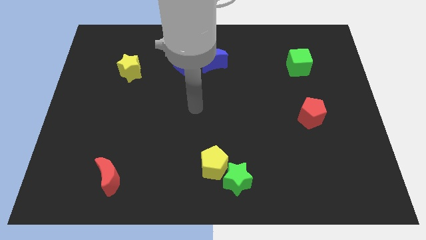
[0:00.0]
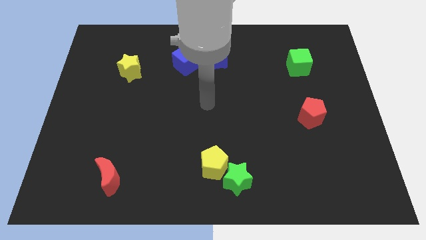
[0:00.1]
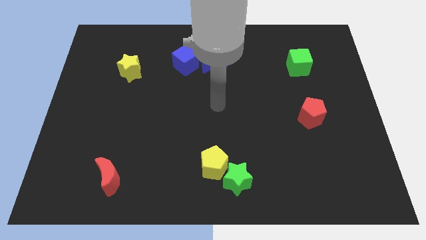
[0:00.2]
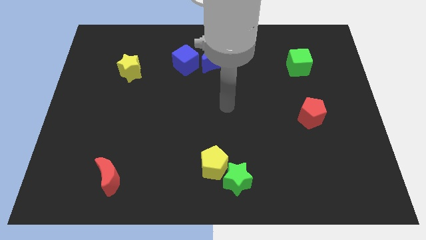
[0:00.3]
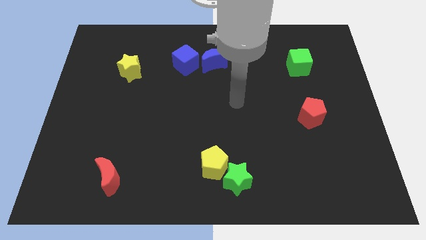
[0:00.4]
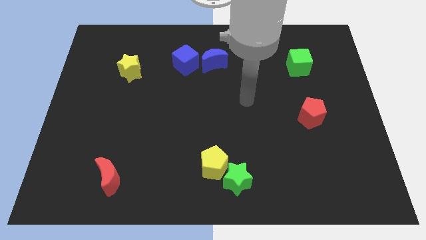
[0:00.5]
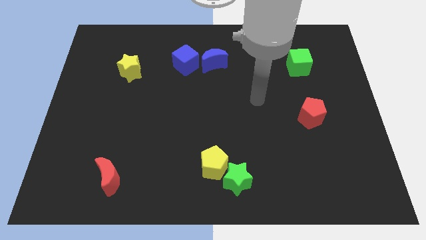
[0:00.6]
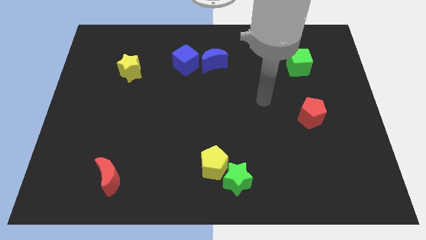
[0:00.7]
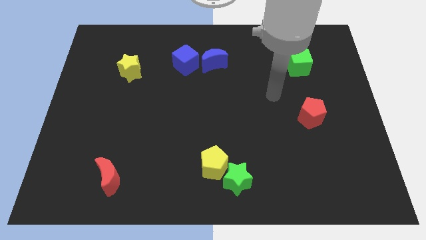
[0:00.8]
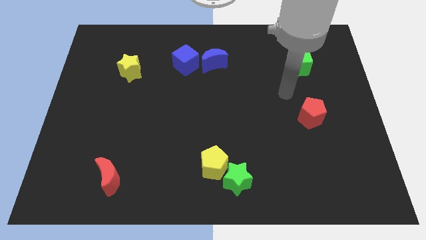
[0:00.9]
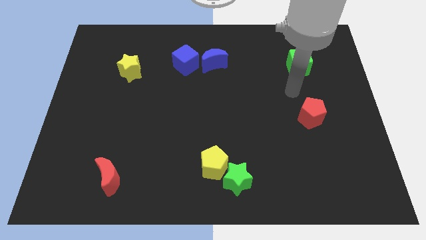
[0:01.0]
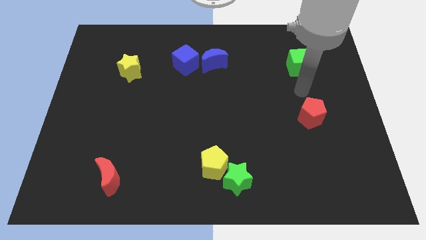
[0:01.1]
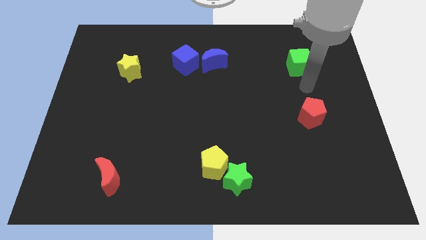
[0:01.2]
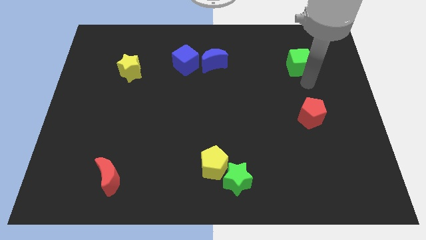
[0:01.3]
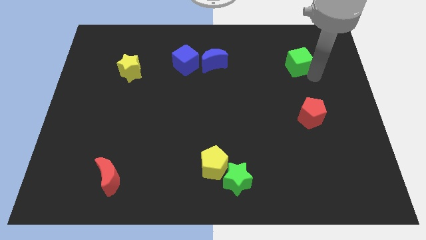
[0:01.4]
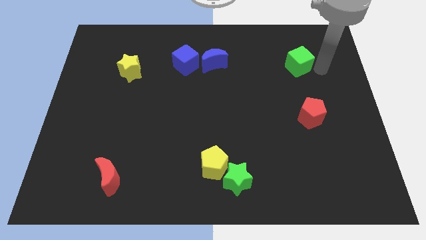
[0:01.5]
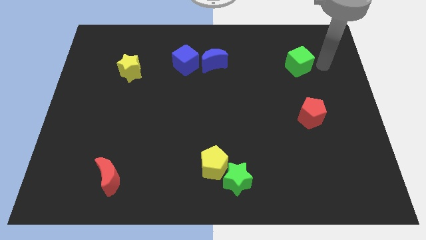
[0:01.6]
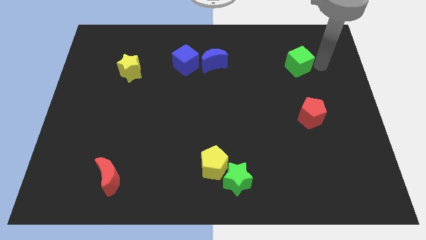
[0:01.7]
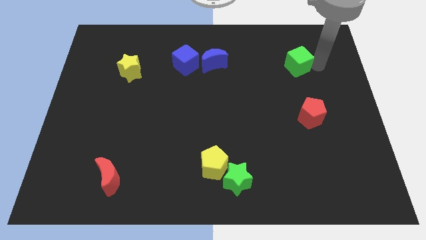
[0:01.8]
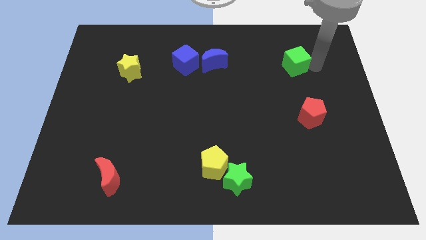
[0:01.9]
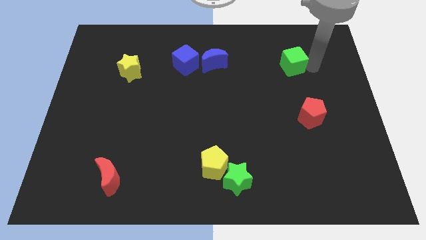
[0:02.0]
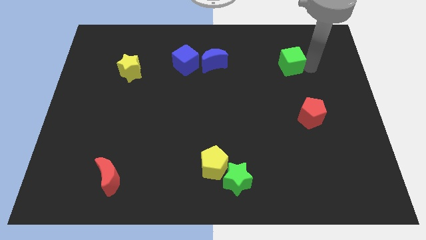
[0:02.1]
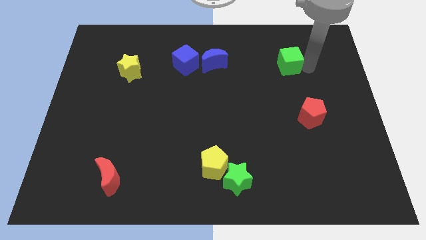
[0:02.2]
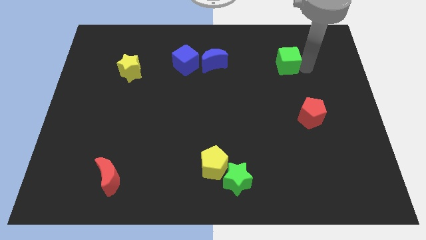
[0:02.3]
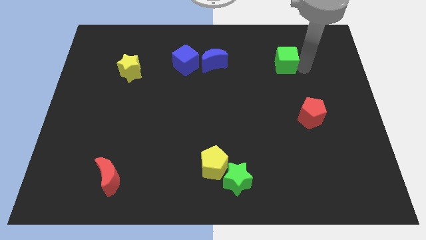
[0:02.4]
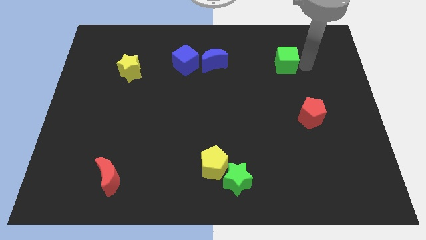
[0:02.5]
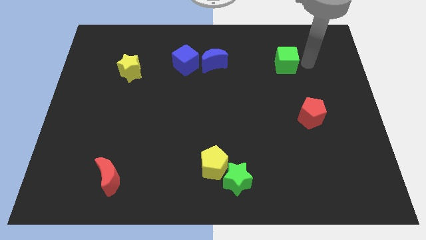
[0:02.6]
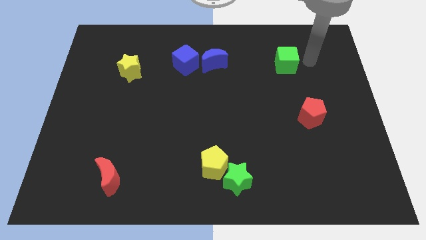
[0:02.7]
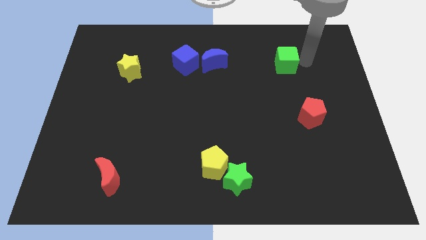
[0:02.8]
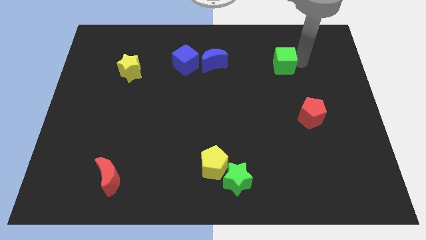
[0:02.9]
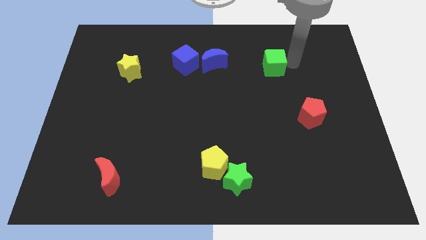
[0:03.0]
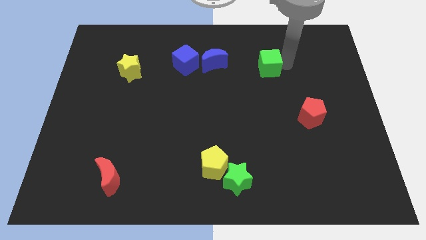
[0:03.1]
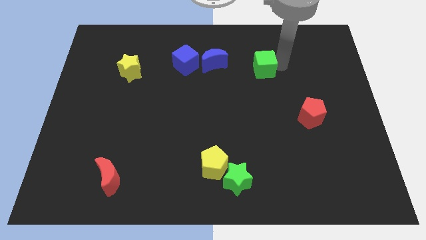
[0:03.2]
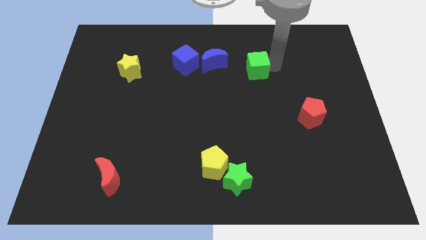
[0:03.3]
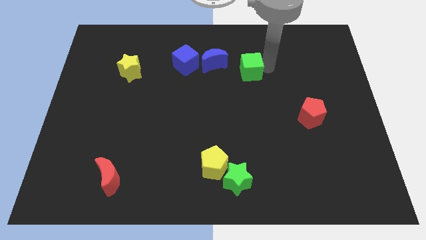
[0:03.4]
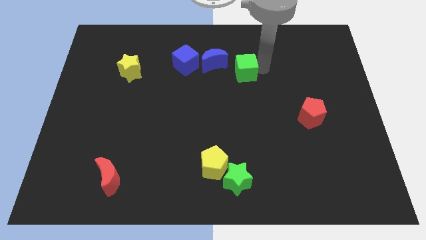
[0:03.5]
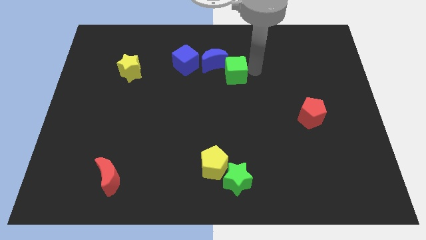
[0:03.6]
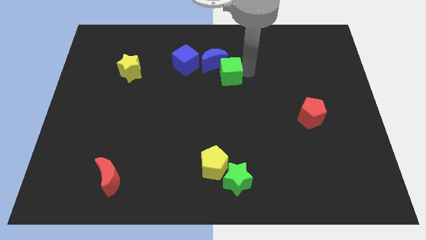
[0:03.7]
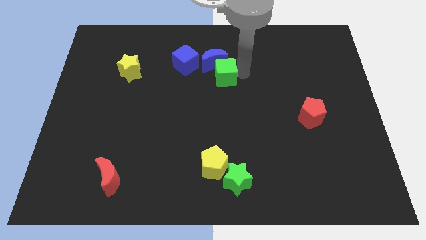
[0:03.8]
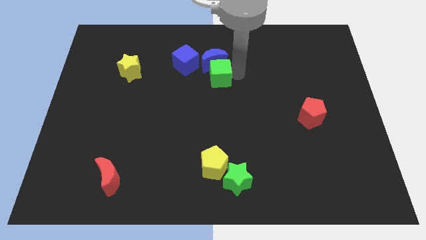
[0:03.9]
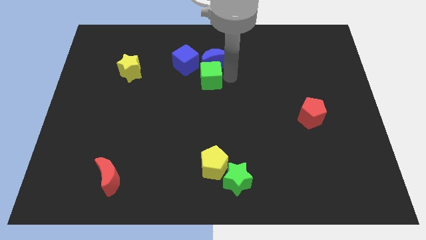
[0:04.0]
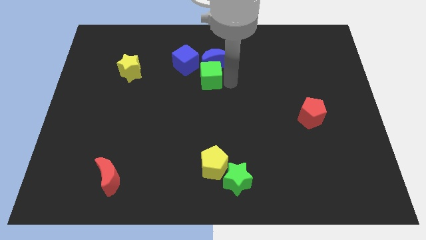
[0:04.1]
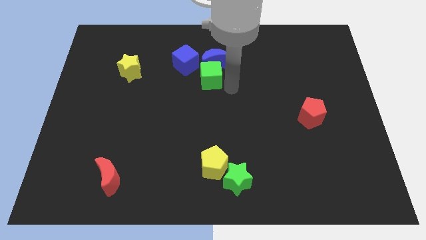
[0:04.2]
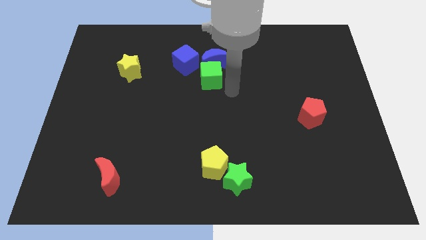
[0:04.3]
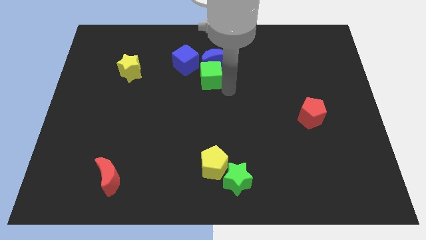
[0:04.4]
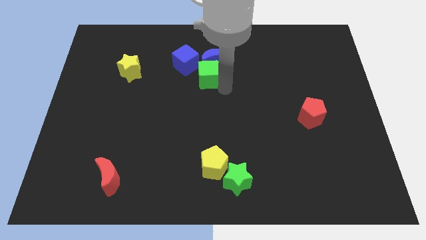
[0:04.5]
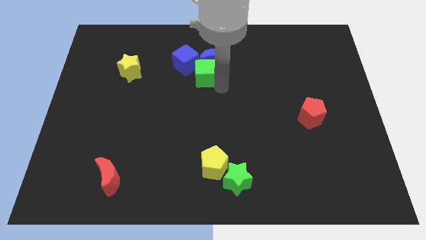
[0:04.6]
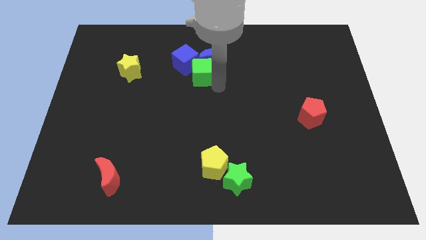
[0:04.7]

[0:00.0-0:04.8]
move the green cube next to the blue cube

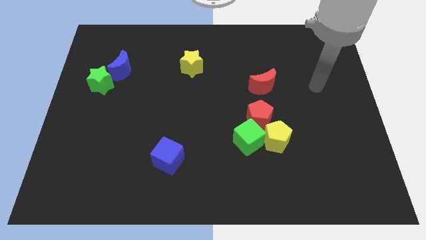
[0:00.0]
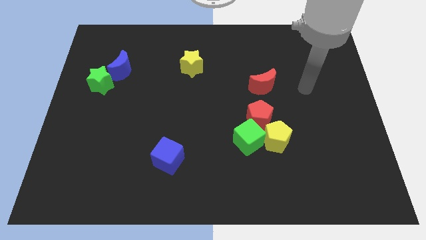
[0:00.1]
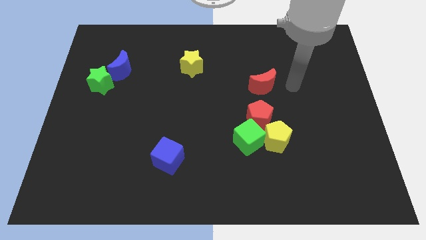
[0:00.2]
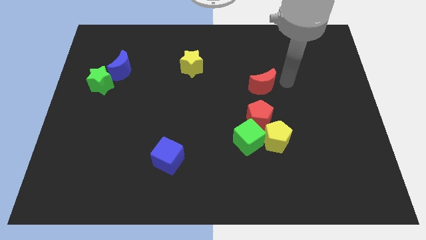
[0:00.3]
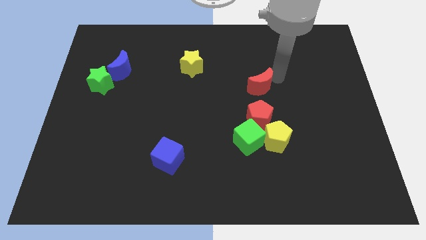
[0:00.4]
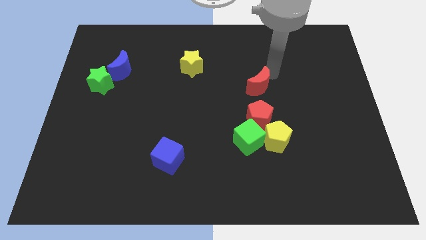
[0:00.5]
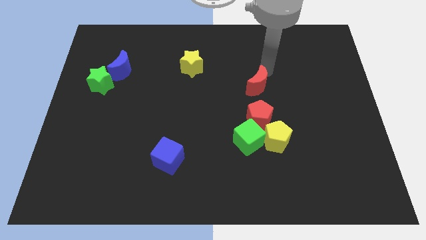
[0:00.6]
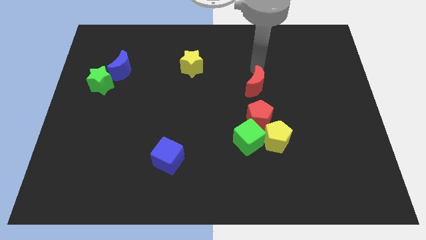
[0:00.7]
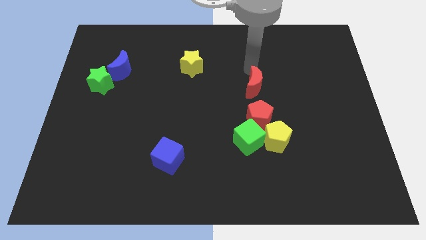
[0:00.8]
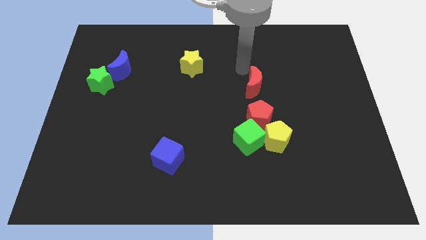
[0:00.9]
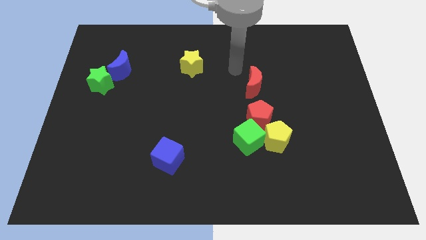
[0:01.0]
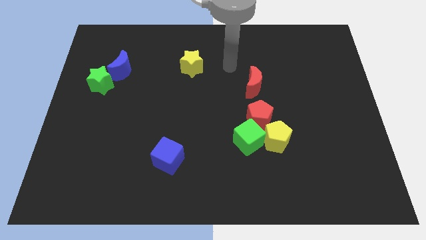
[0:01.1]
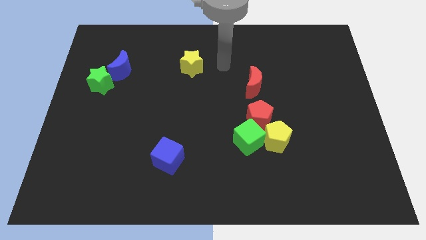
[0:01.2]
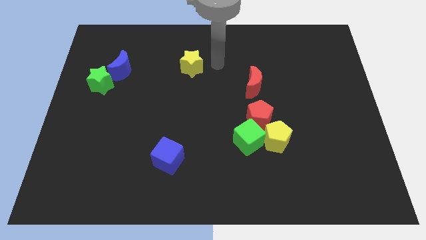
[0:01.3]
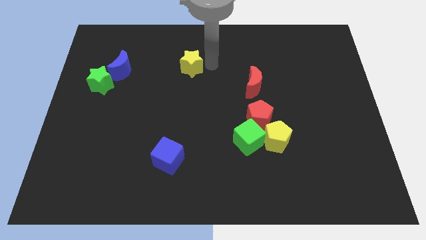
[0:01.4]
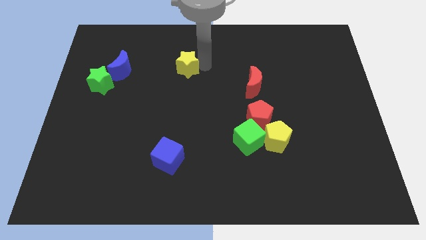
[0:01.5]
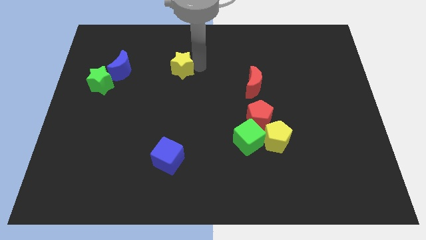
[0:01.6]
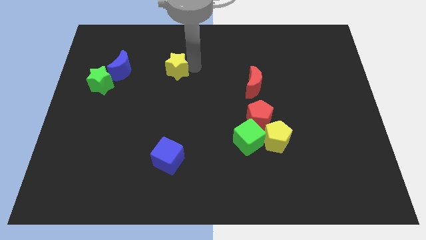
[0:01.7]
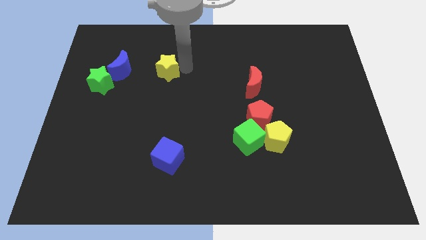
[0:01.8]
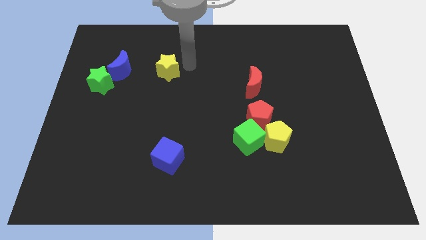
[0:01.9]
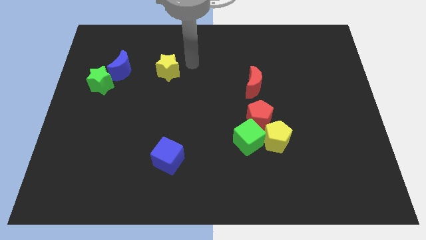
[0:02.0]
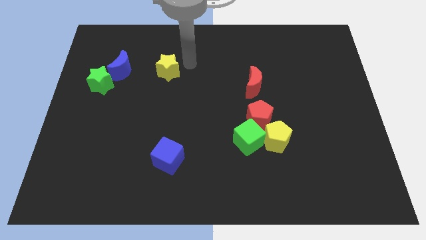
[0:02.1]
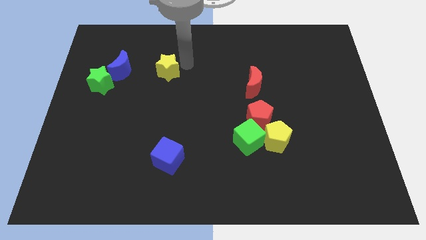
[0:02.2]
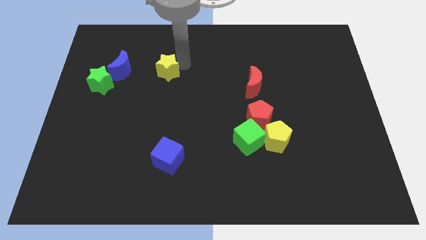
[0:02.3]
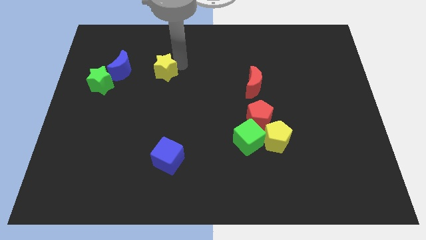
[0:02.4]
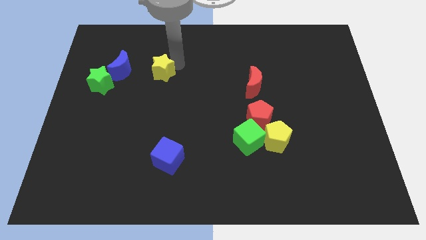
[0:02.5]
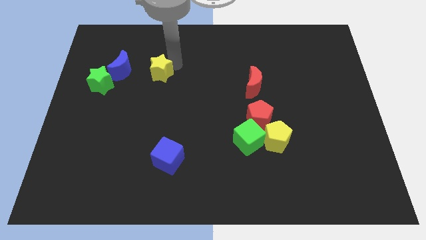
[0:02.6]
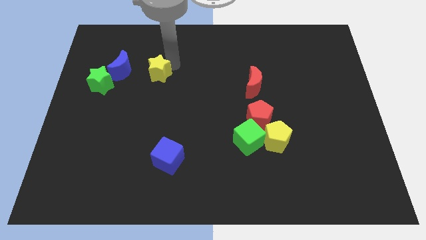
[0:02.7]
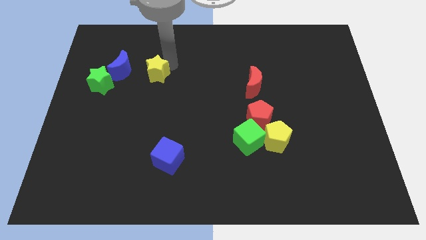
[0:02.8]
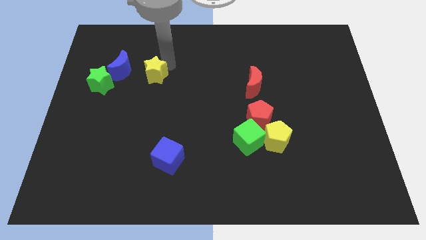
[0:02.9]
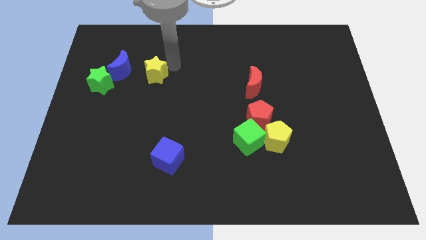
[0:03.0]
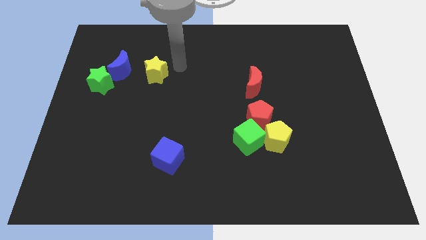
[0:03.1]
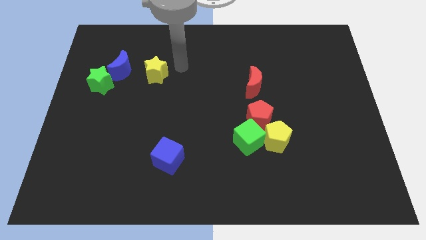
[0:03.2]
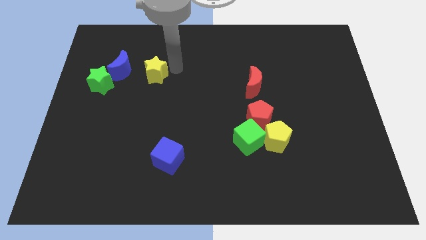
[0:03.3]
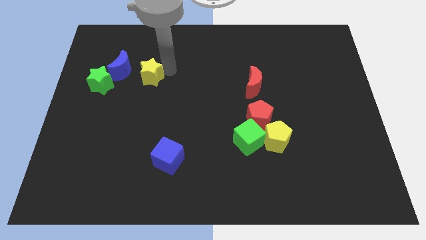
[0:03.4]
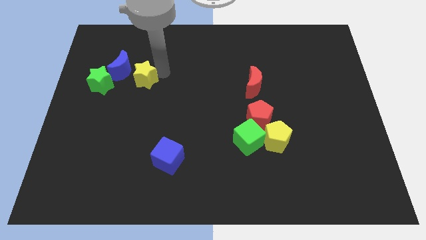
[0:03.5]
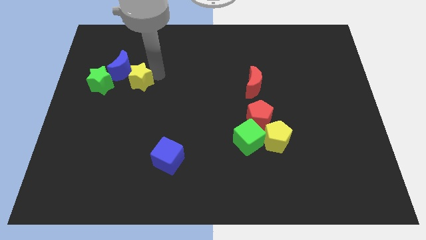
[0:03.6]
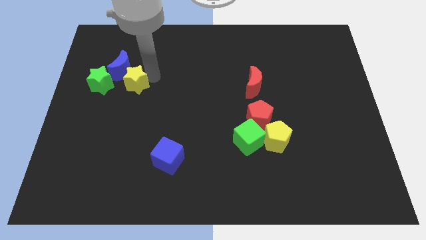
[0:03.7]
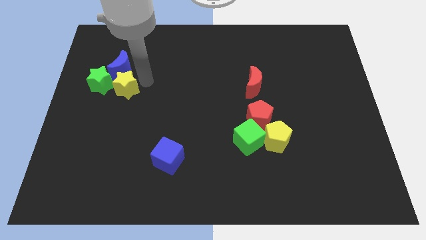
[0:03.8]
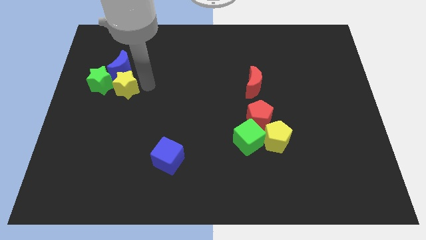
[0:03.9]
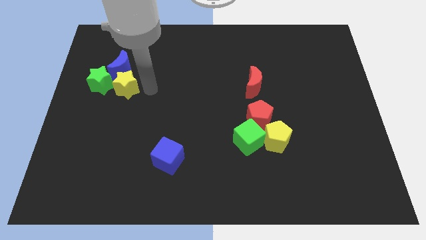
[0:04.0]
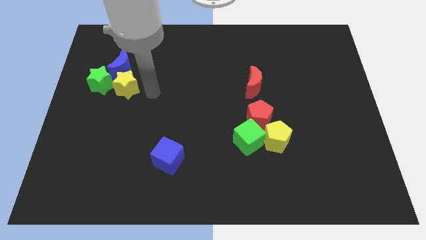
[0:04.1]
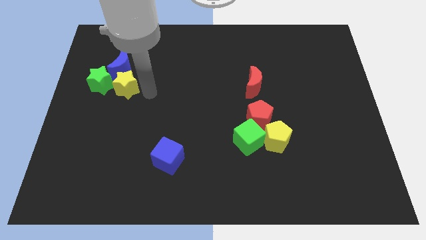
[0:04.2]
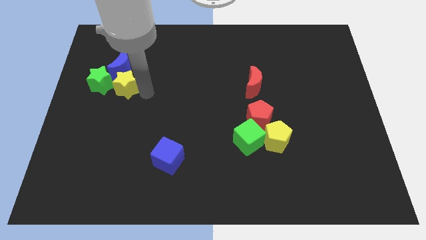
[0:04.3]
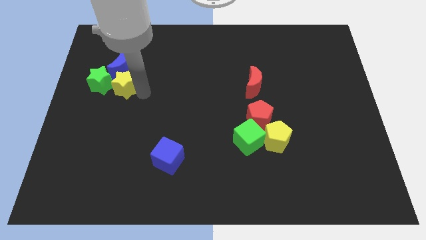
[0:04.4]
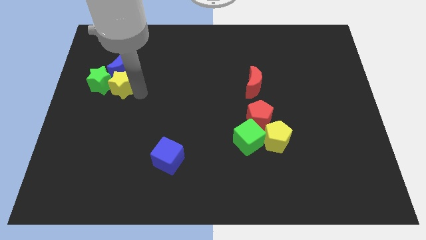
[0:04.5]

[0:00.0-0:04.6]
push the yellow star close to the green star
